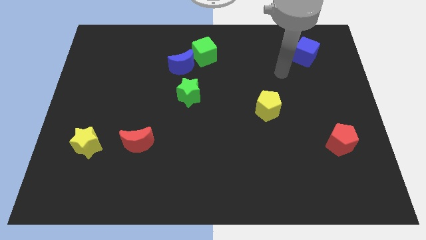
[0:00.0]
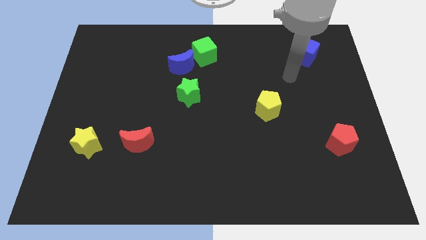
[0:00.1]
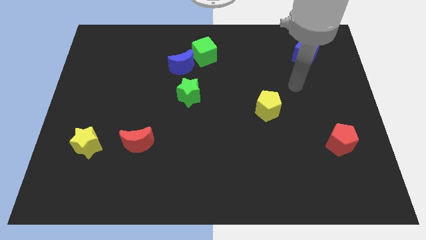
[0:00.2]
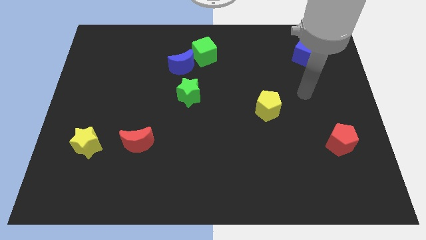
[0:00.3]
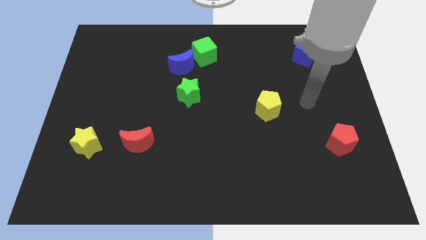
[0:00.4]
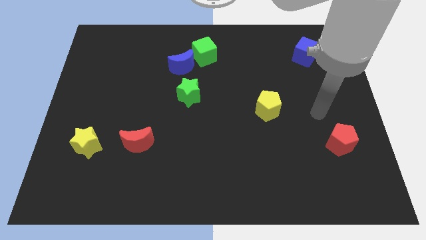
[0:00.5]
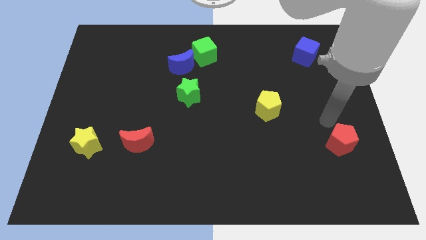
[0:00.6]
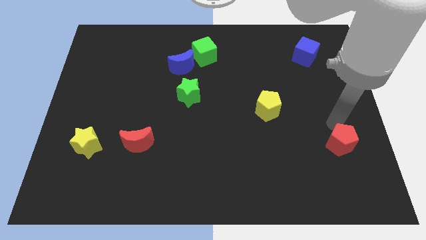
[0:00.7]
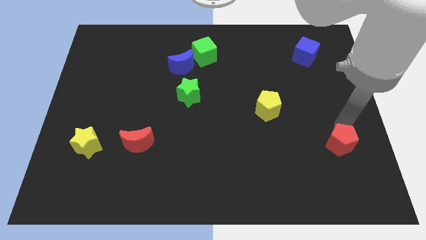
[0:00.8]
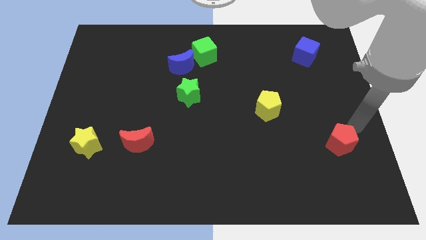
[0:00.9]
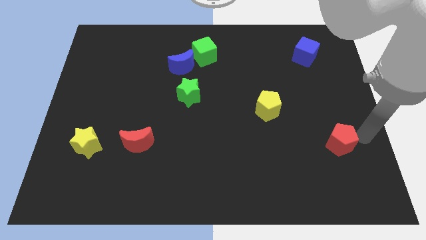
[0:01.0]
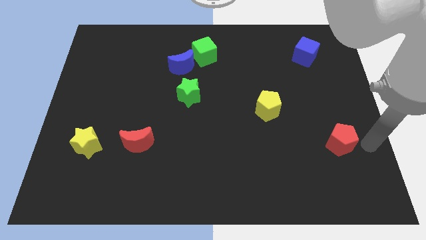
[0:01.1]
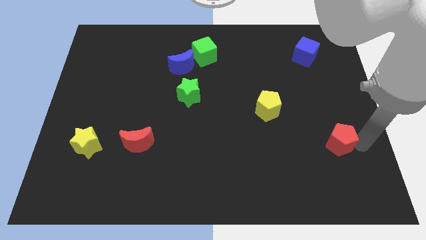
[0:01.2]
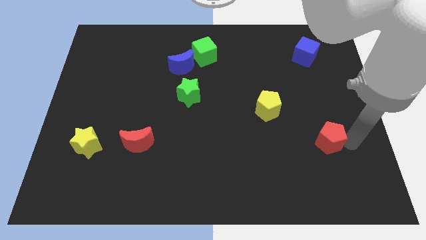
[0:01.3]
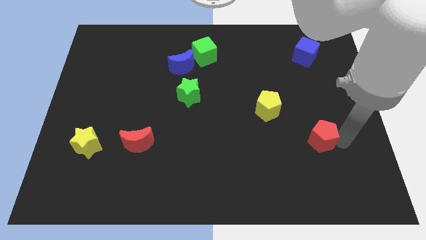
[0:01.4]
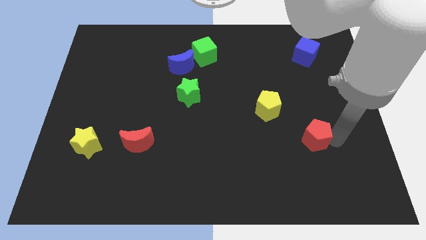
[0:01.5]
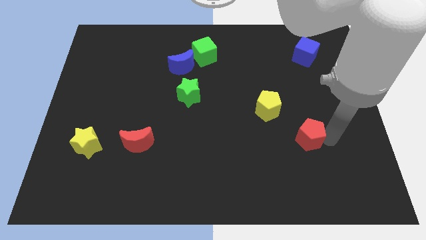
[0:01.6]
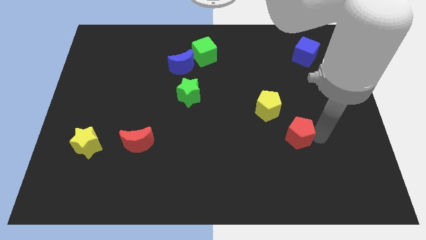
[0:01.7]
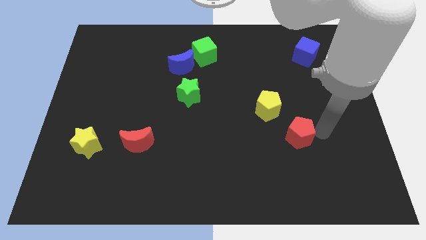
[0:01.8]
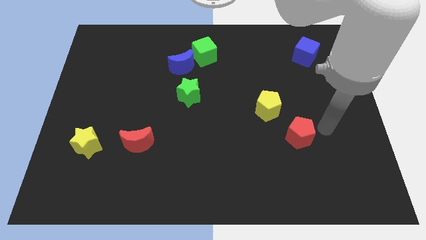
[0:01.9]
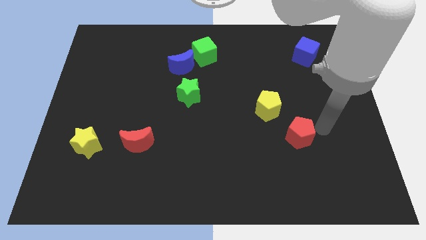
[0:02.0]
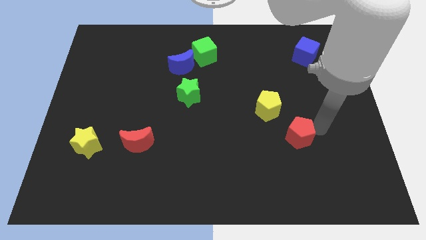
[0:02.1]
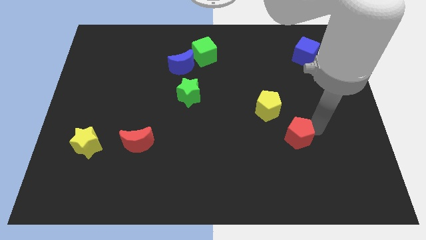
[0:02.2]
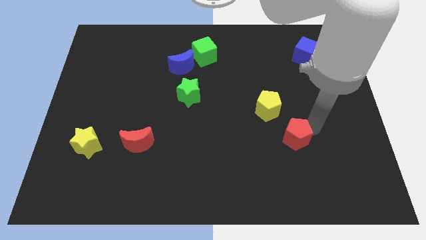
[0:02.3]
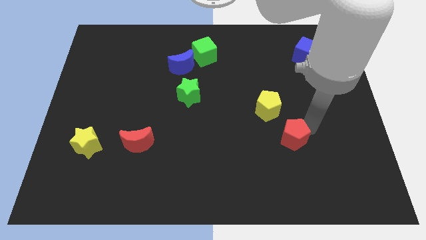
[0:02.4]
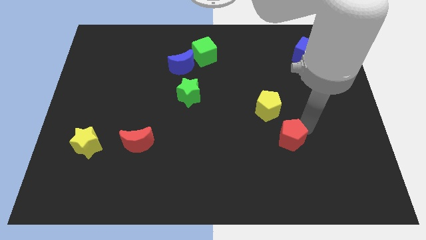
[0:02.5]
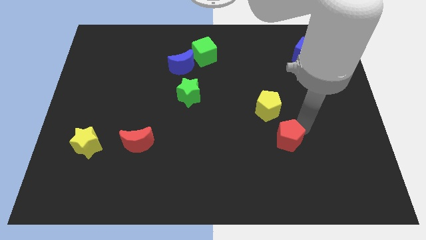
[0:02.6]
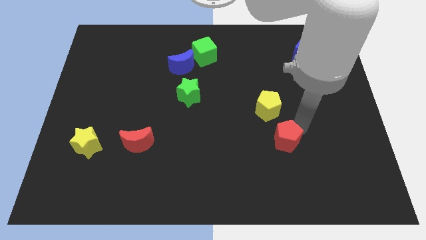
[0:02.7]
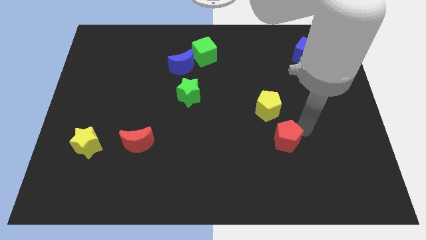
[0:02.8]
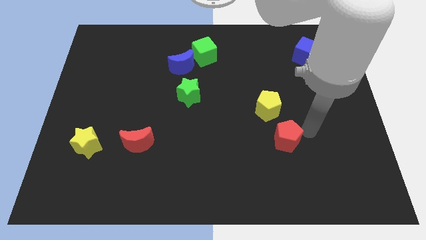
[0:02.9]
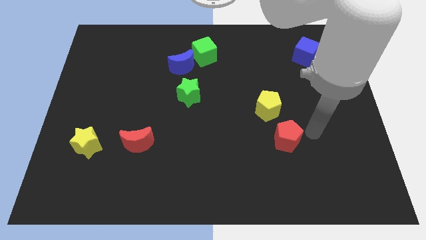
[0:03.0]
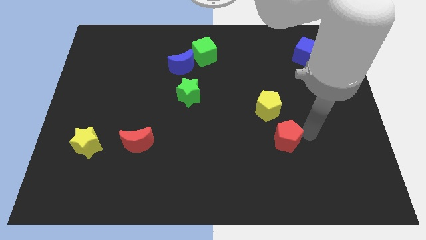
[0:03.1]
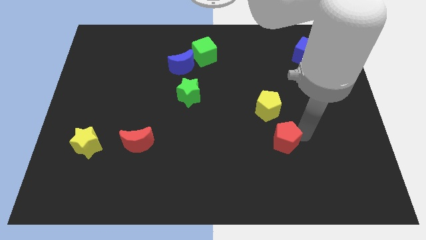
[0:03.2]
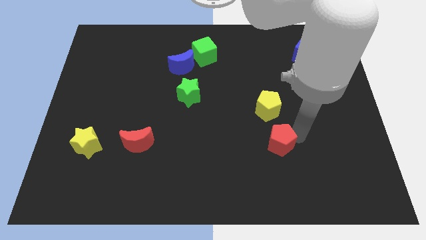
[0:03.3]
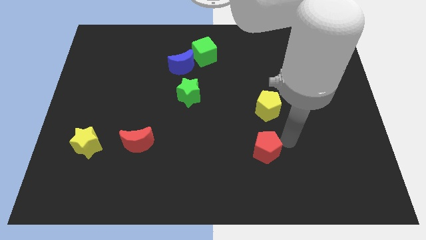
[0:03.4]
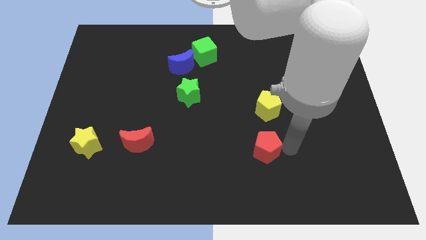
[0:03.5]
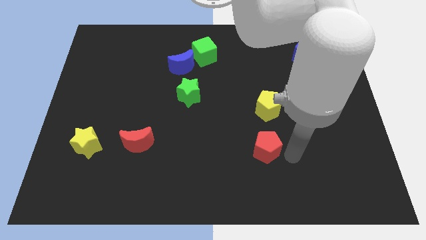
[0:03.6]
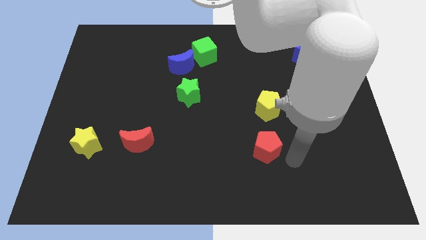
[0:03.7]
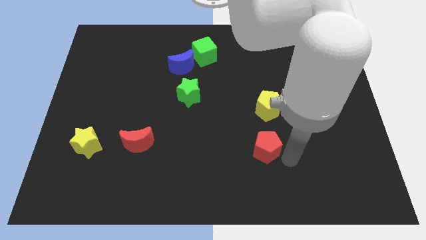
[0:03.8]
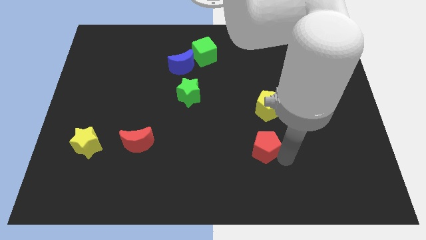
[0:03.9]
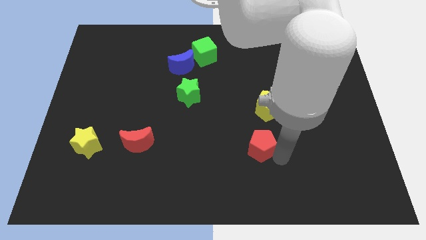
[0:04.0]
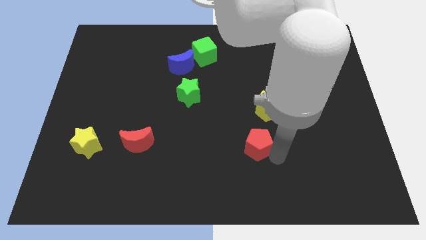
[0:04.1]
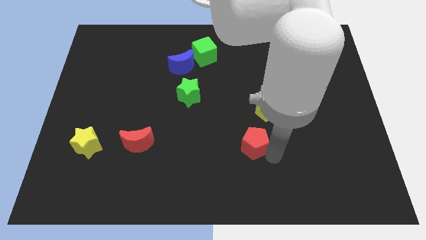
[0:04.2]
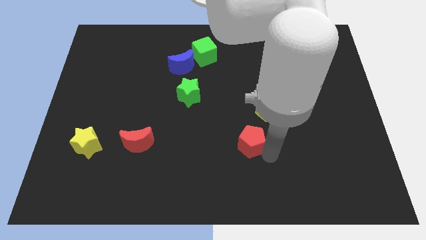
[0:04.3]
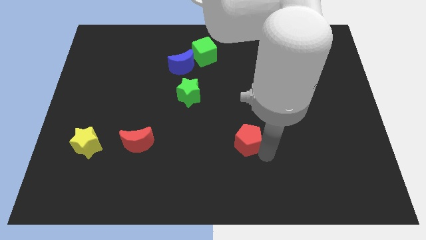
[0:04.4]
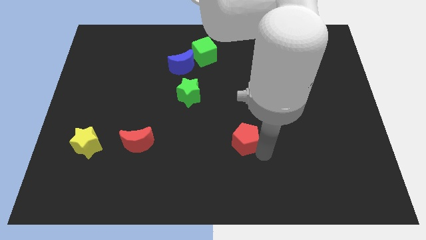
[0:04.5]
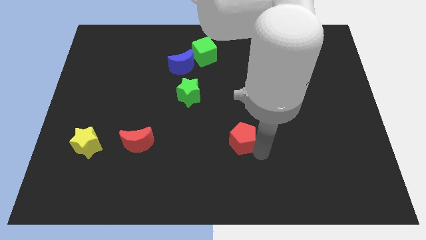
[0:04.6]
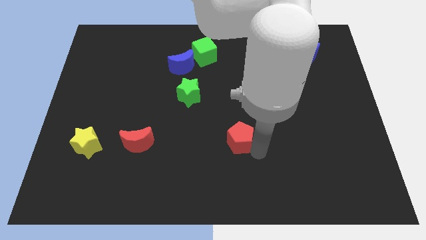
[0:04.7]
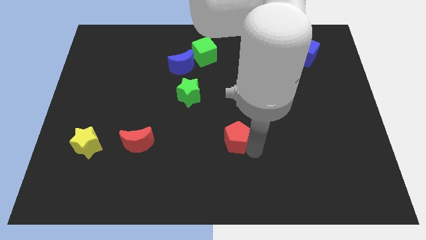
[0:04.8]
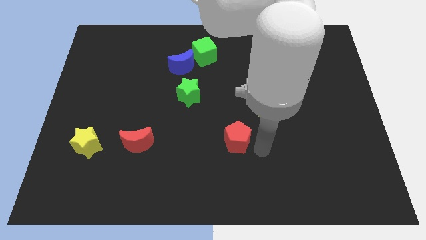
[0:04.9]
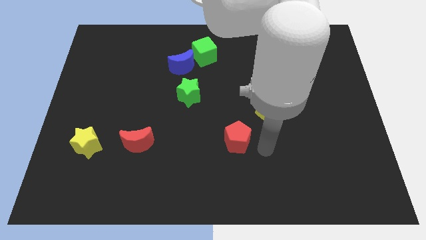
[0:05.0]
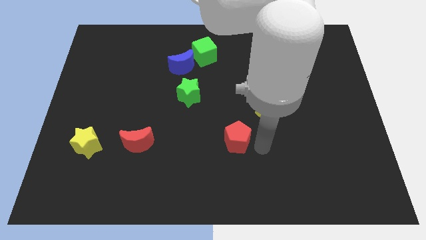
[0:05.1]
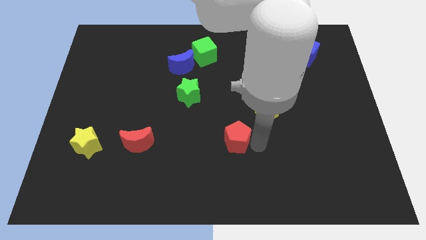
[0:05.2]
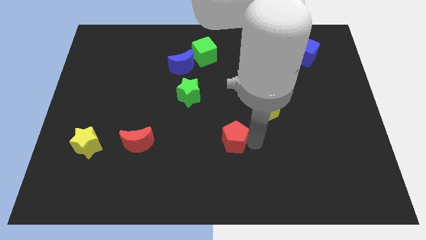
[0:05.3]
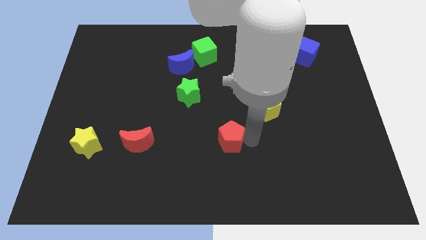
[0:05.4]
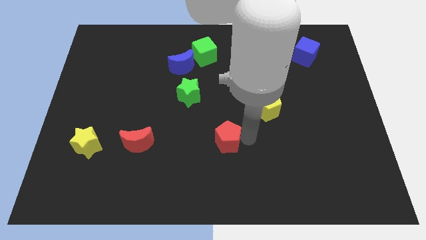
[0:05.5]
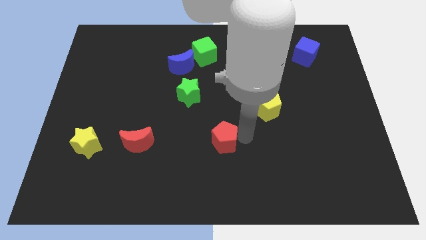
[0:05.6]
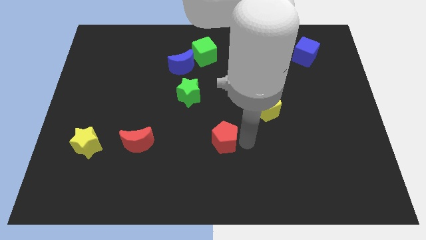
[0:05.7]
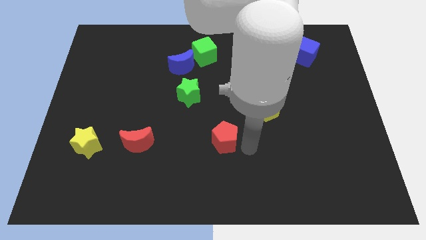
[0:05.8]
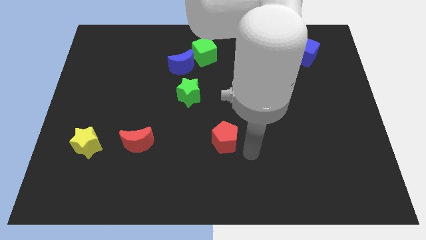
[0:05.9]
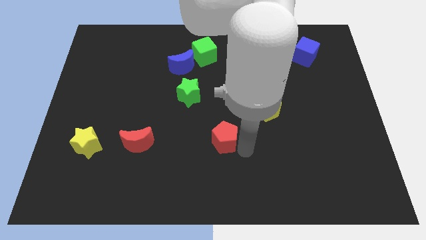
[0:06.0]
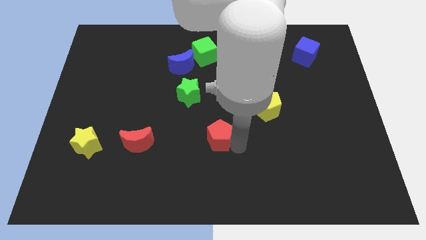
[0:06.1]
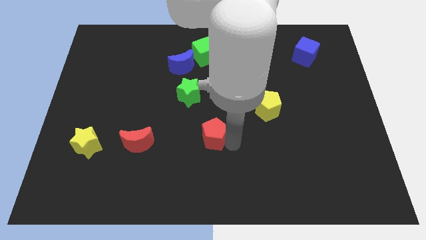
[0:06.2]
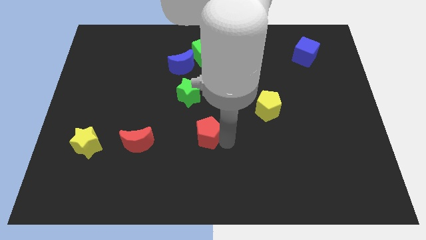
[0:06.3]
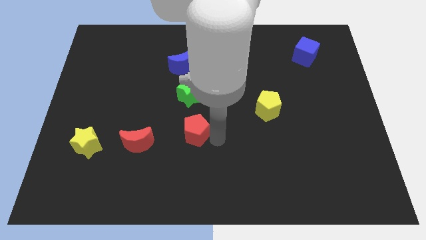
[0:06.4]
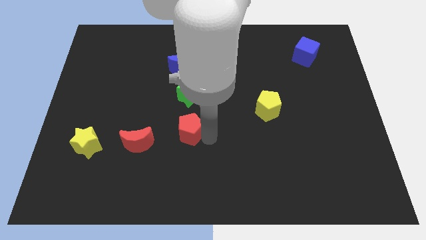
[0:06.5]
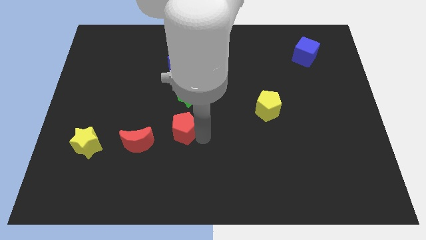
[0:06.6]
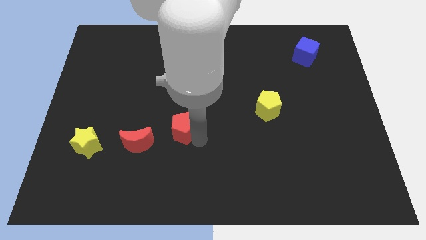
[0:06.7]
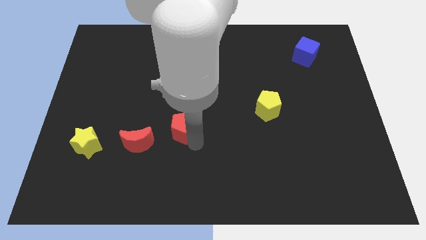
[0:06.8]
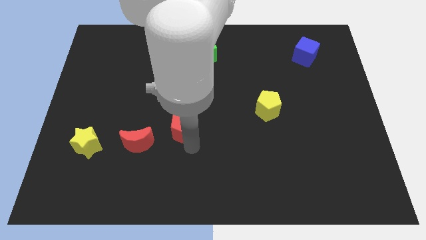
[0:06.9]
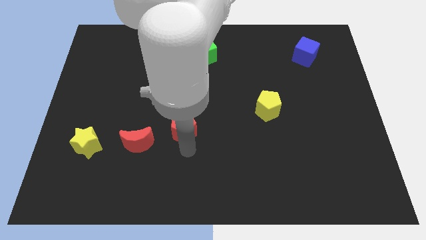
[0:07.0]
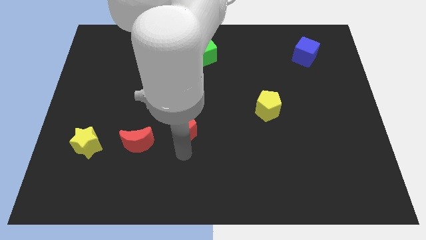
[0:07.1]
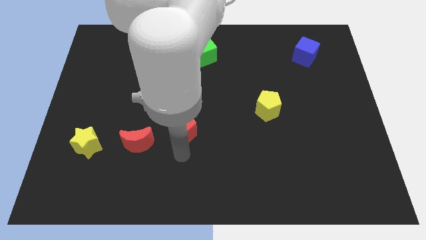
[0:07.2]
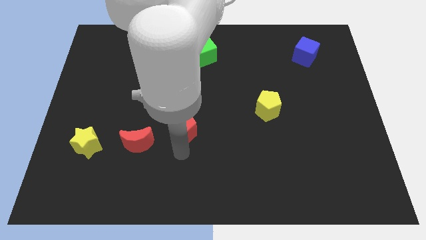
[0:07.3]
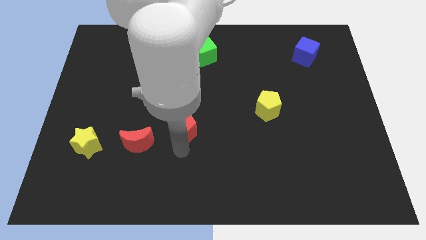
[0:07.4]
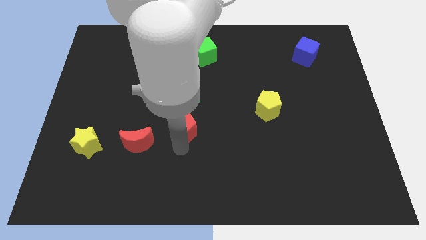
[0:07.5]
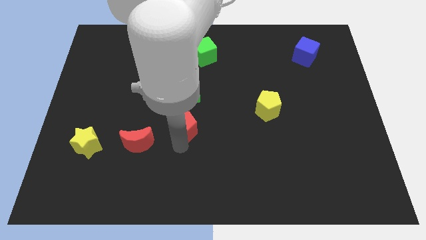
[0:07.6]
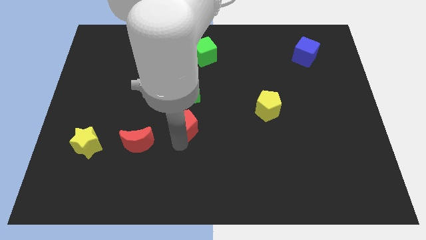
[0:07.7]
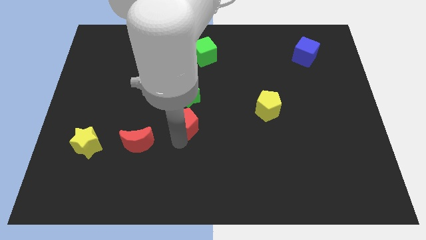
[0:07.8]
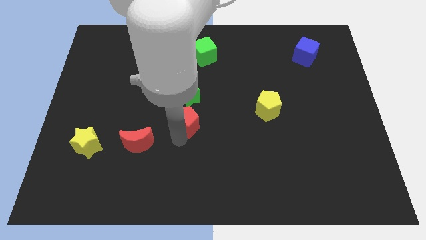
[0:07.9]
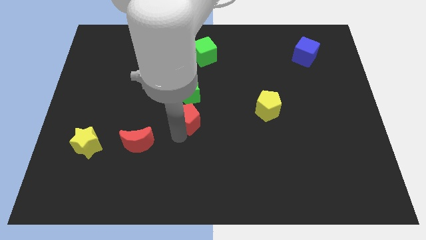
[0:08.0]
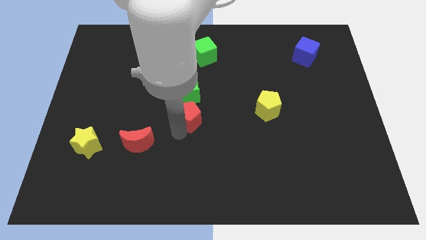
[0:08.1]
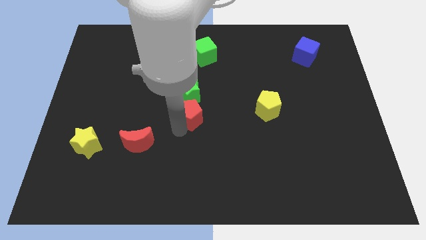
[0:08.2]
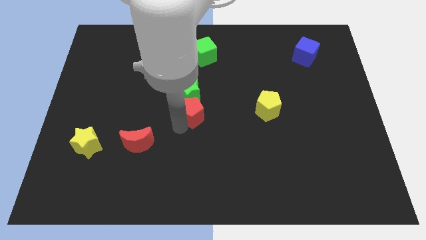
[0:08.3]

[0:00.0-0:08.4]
move the red pentagon below the blue moon

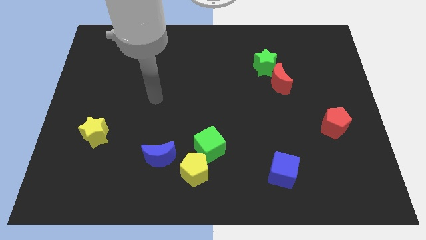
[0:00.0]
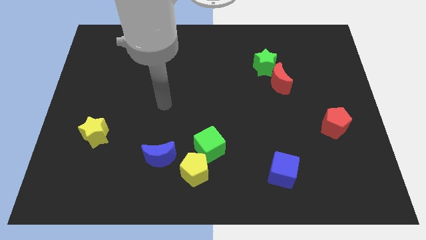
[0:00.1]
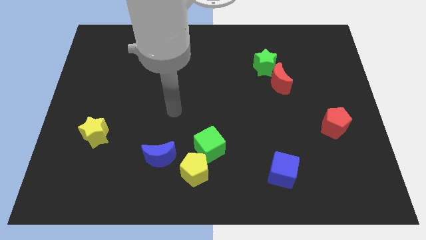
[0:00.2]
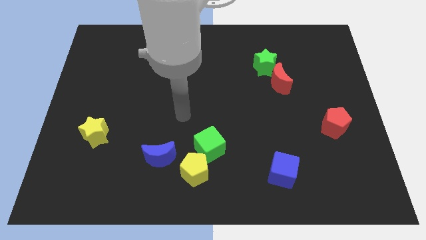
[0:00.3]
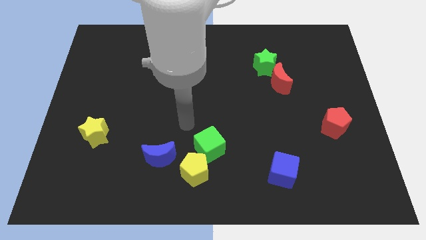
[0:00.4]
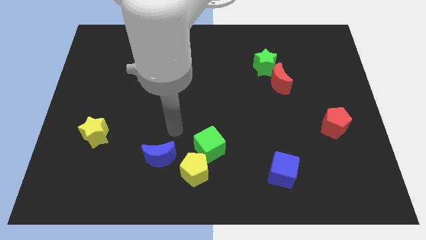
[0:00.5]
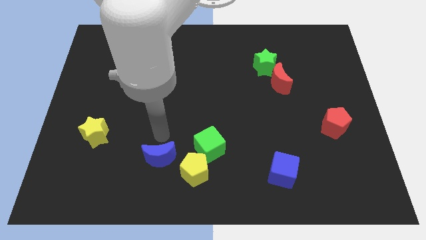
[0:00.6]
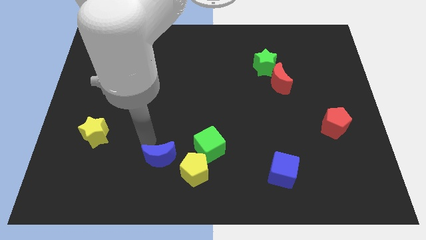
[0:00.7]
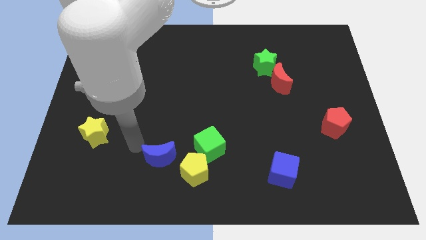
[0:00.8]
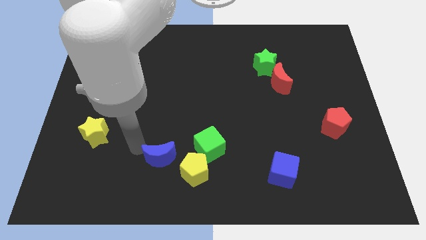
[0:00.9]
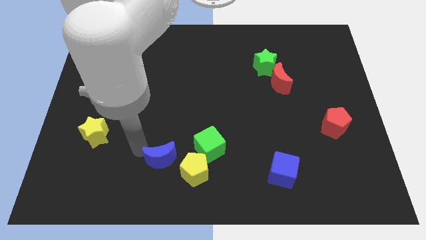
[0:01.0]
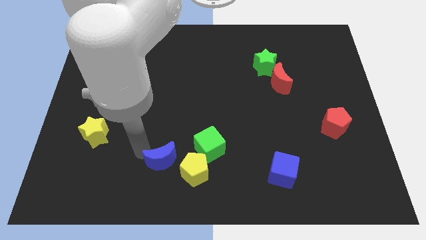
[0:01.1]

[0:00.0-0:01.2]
slide the blue moon diagonally down and to the left of the green cube
